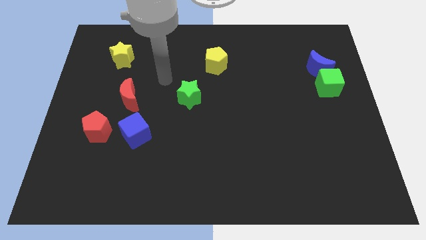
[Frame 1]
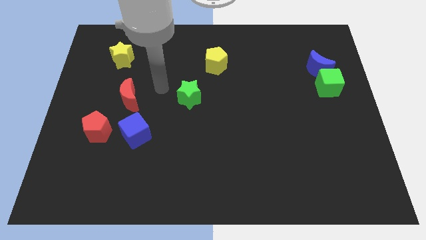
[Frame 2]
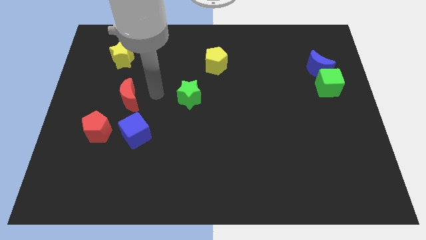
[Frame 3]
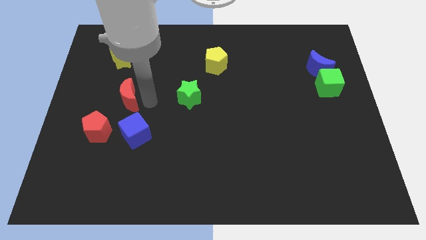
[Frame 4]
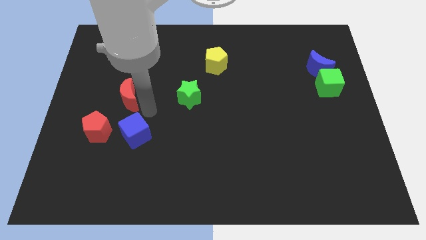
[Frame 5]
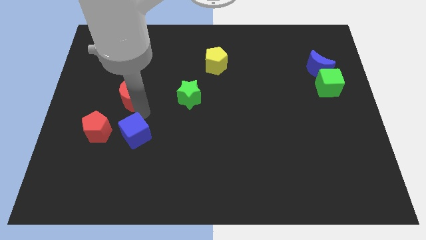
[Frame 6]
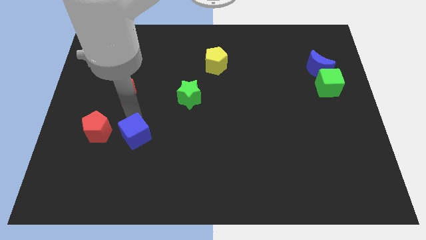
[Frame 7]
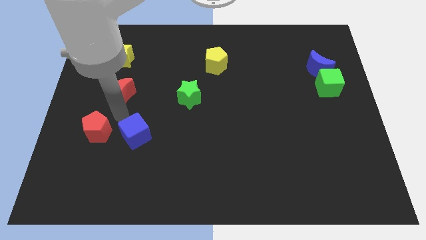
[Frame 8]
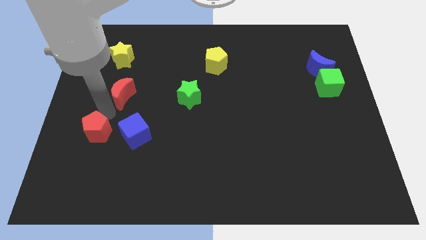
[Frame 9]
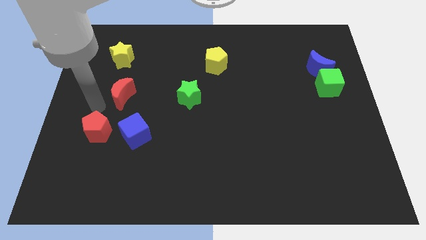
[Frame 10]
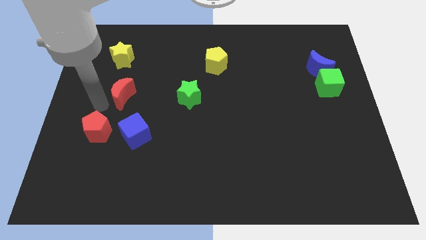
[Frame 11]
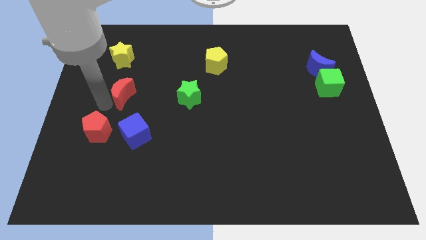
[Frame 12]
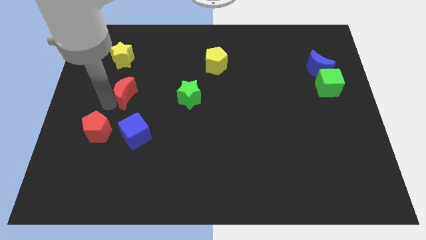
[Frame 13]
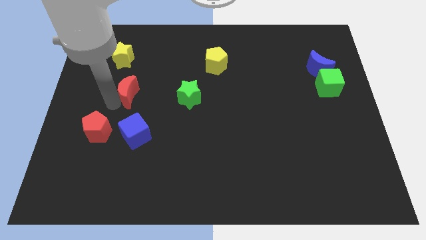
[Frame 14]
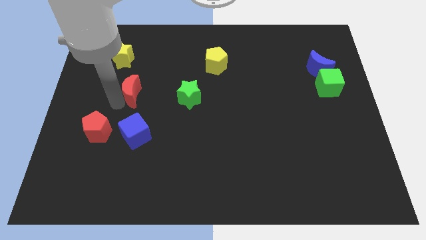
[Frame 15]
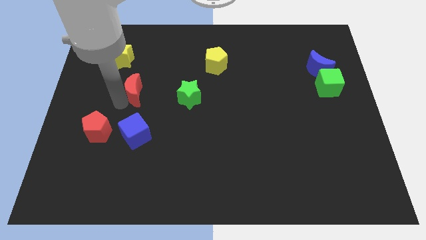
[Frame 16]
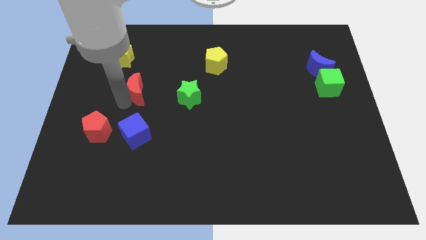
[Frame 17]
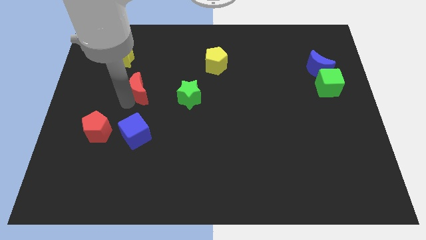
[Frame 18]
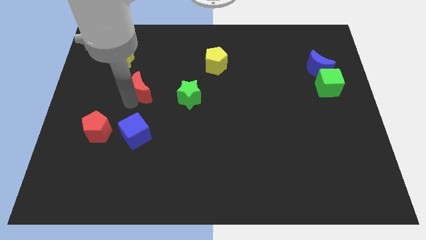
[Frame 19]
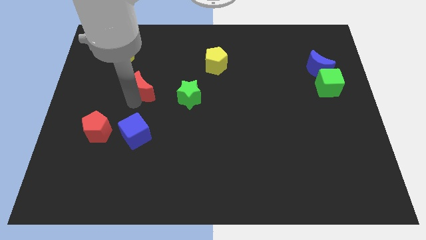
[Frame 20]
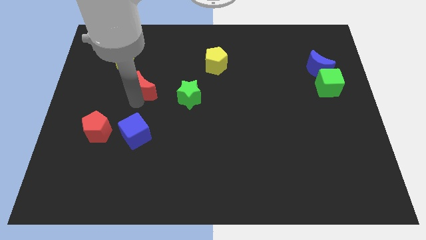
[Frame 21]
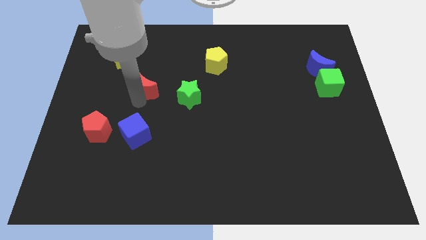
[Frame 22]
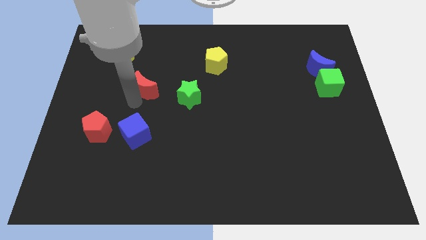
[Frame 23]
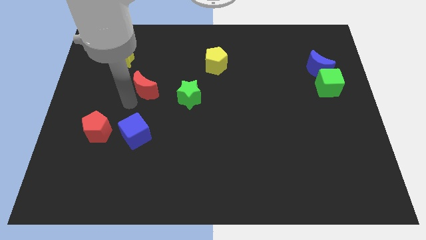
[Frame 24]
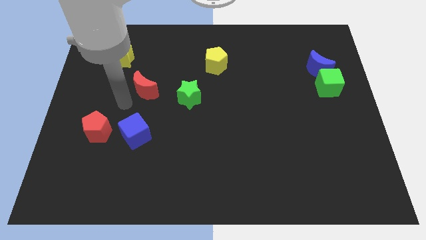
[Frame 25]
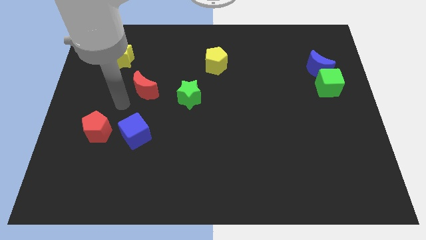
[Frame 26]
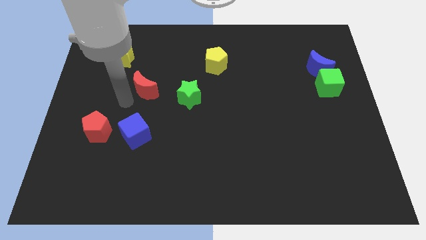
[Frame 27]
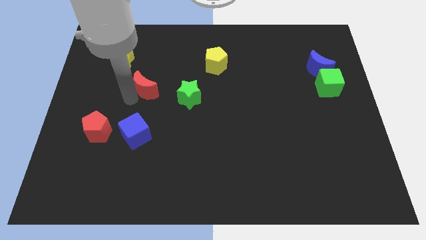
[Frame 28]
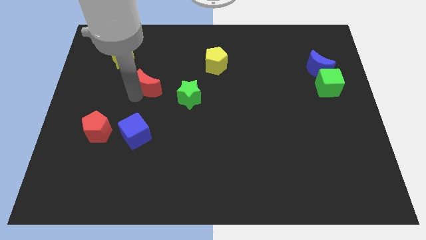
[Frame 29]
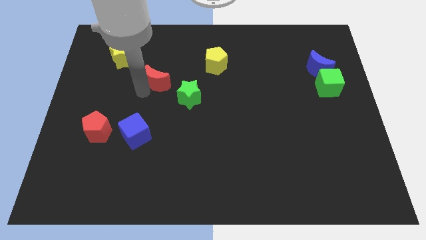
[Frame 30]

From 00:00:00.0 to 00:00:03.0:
move the red moon a little upwards and right

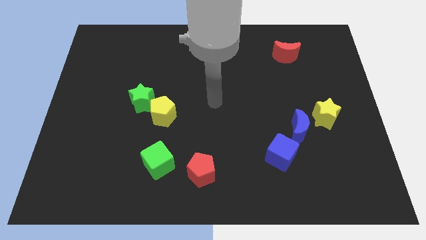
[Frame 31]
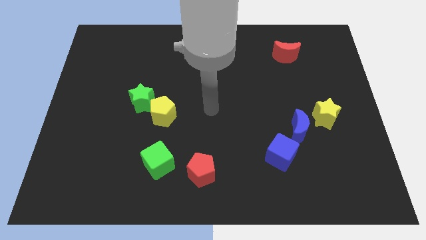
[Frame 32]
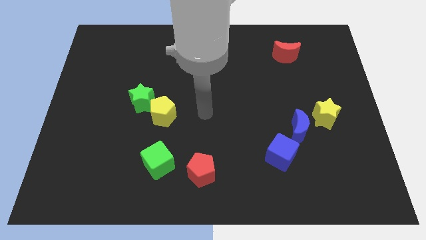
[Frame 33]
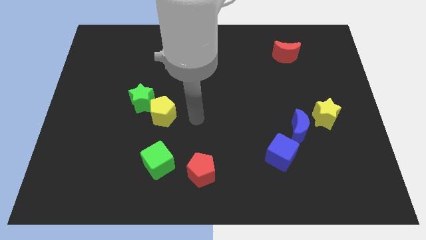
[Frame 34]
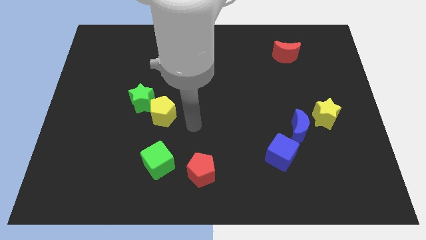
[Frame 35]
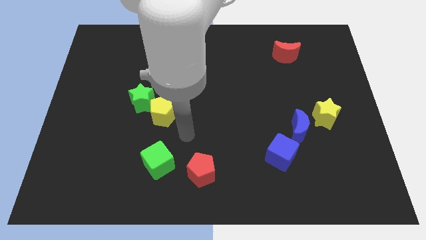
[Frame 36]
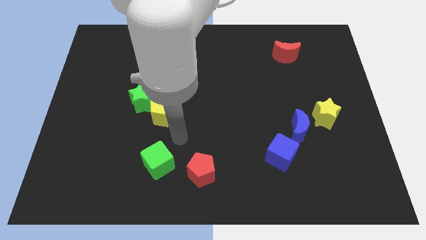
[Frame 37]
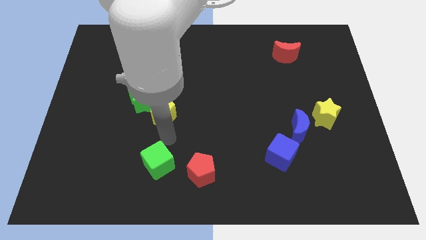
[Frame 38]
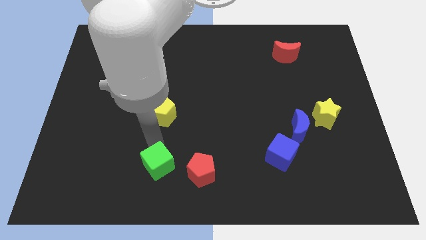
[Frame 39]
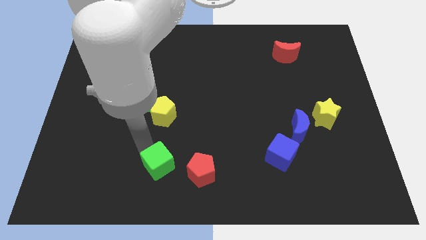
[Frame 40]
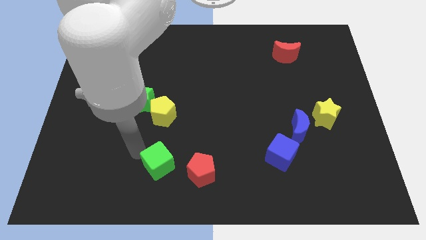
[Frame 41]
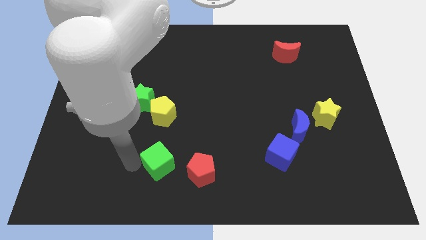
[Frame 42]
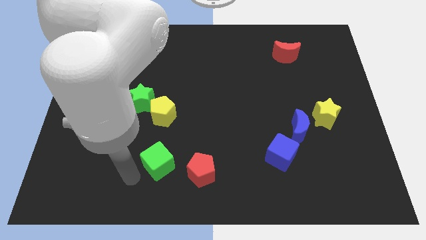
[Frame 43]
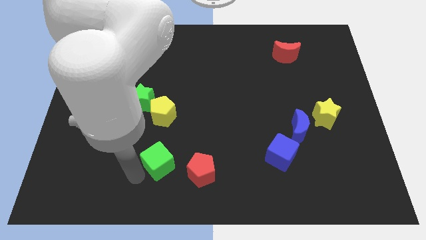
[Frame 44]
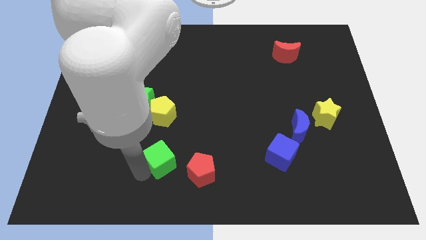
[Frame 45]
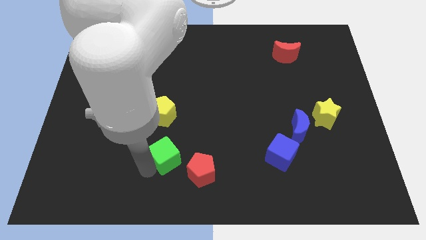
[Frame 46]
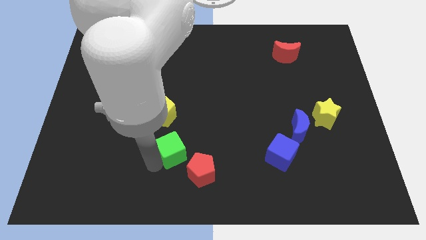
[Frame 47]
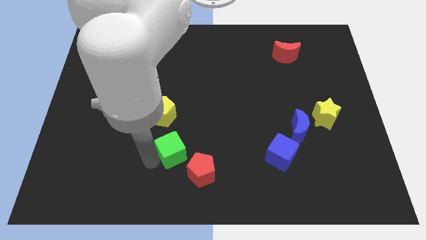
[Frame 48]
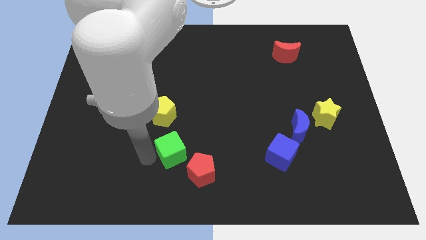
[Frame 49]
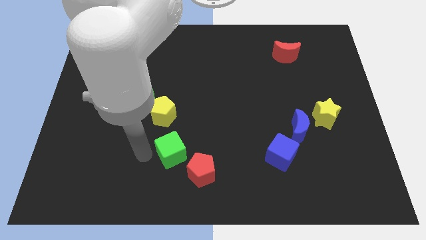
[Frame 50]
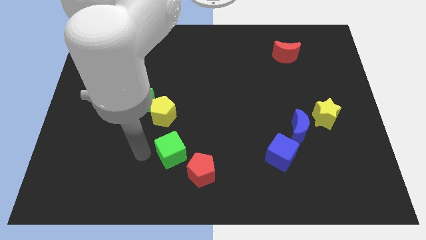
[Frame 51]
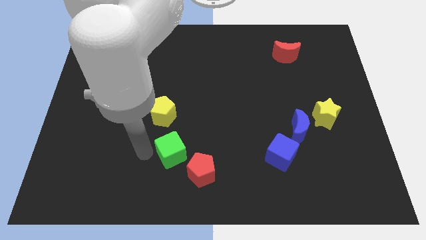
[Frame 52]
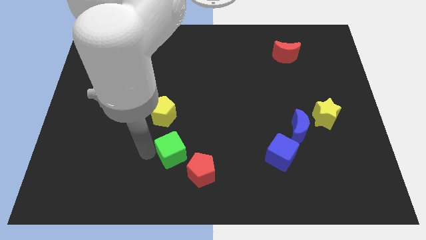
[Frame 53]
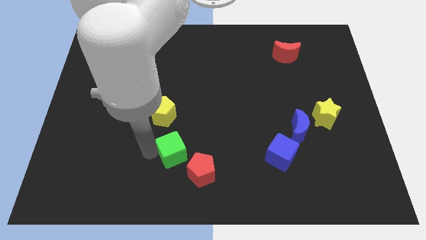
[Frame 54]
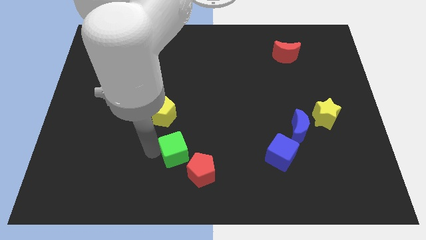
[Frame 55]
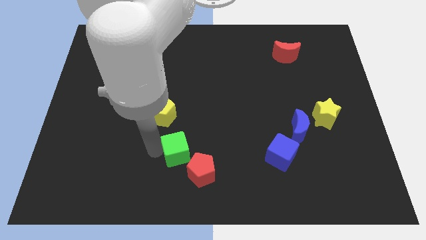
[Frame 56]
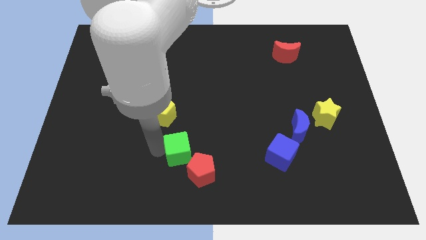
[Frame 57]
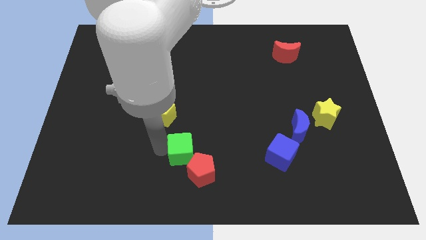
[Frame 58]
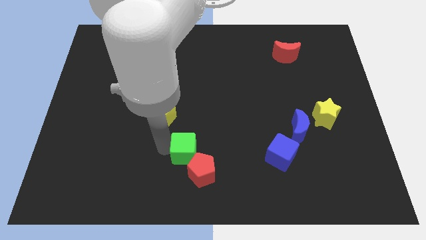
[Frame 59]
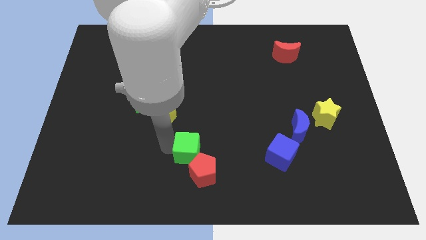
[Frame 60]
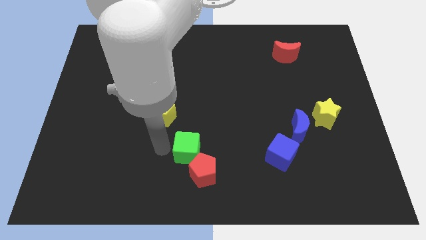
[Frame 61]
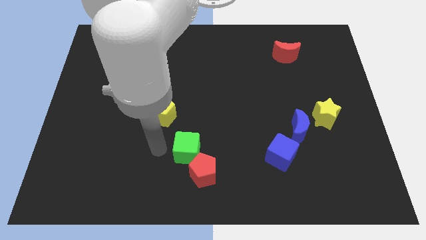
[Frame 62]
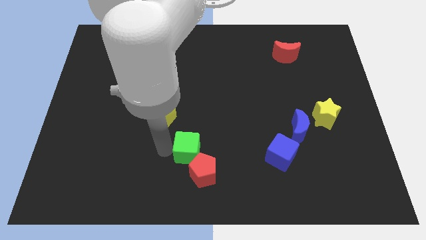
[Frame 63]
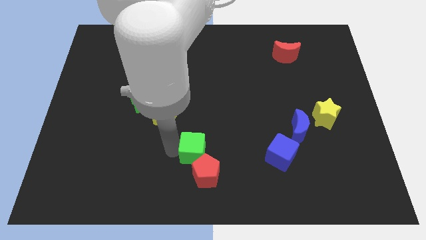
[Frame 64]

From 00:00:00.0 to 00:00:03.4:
slightly push the green cube right

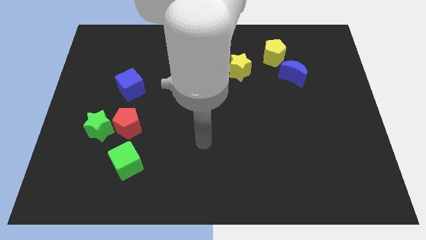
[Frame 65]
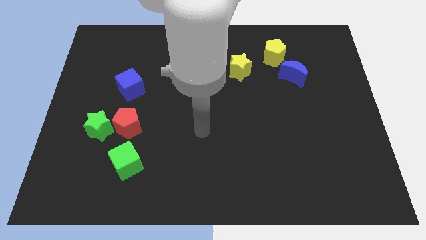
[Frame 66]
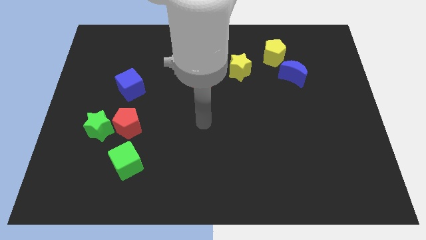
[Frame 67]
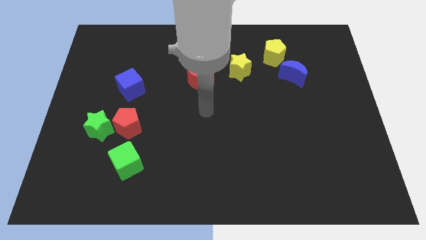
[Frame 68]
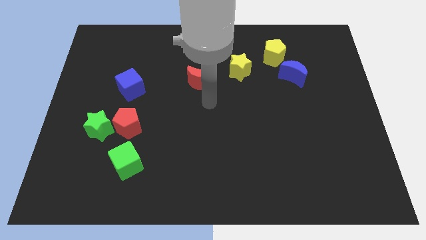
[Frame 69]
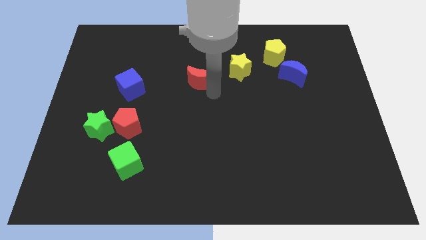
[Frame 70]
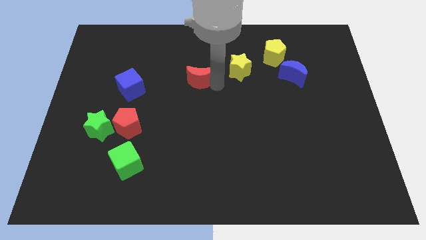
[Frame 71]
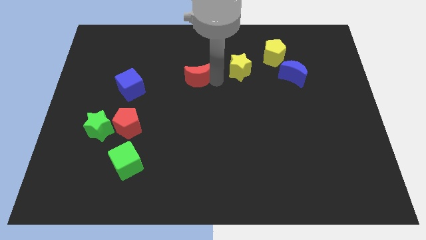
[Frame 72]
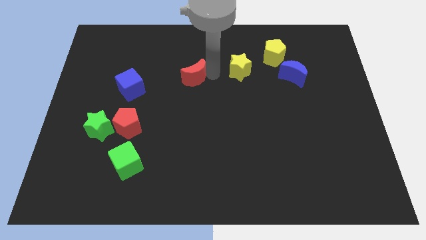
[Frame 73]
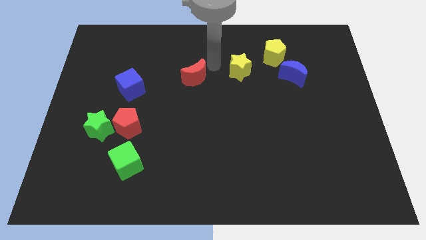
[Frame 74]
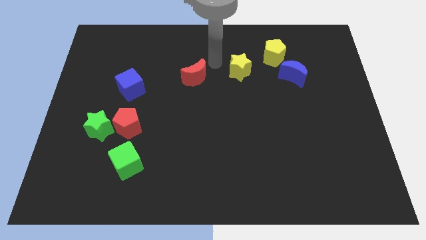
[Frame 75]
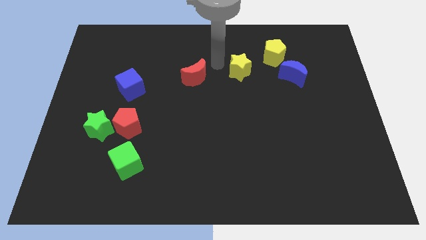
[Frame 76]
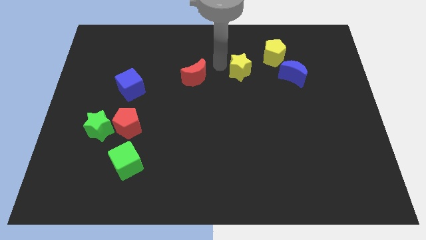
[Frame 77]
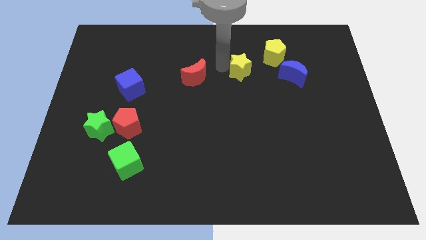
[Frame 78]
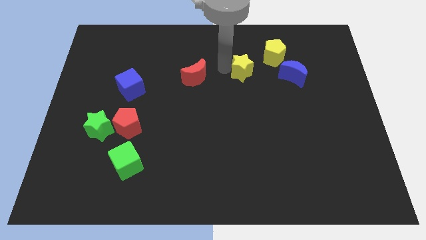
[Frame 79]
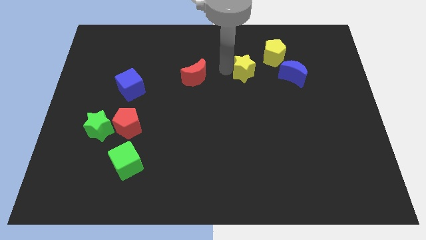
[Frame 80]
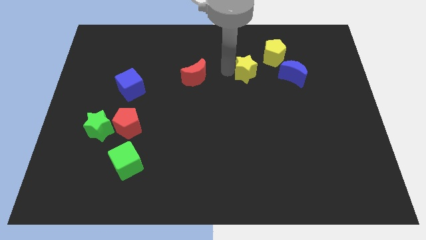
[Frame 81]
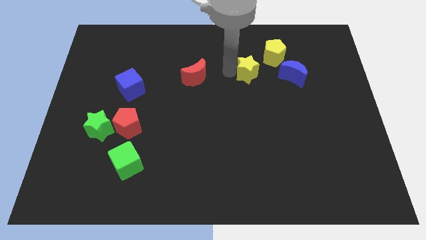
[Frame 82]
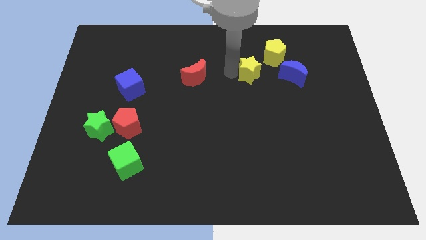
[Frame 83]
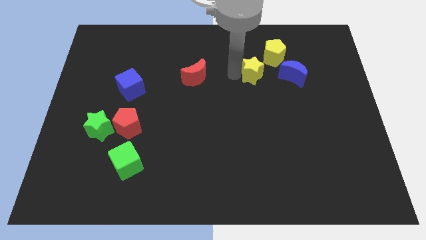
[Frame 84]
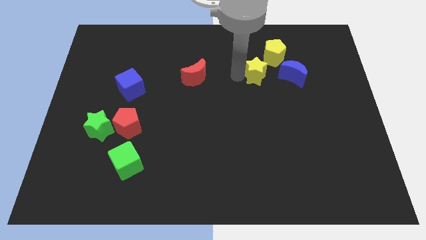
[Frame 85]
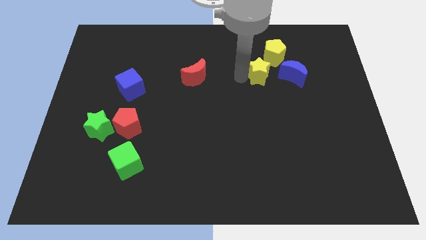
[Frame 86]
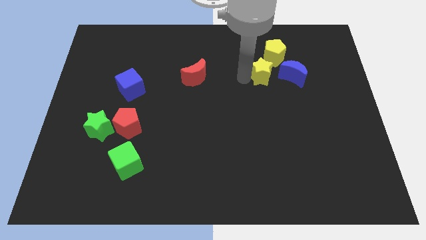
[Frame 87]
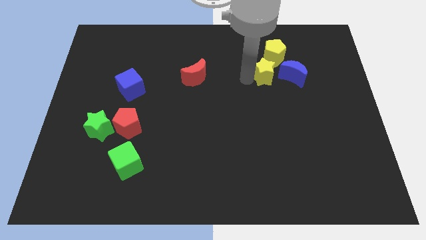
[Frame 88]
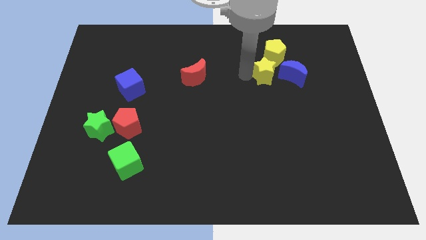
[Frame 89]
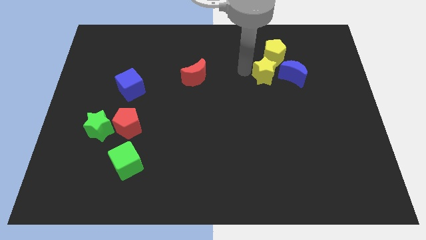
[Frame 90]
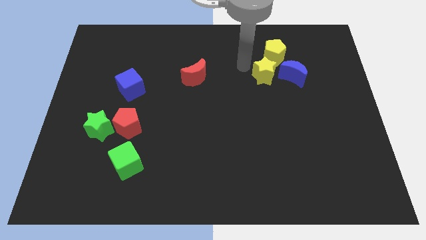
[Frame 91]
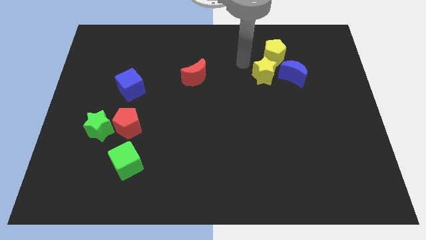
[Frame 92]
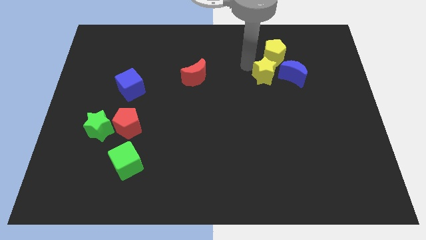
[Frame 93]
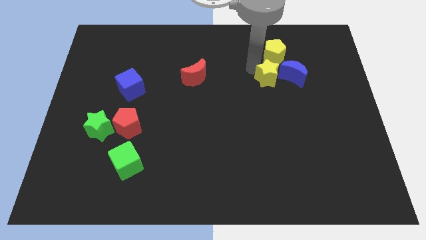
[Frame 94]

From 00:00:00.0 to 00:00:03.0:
slightly slide the yellow star right
